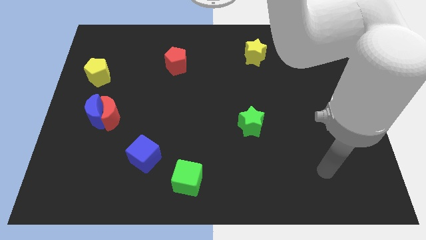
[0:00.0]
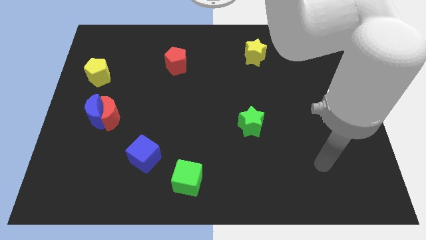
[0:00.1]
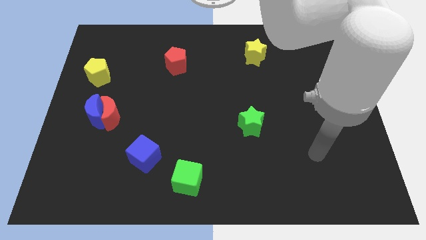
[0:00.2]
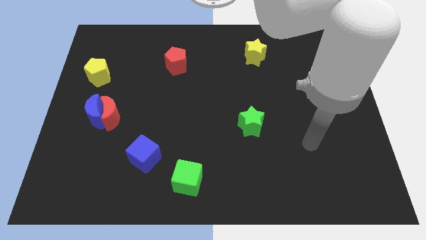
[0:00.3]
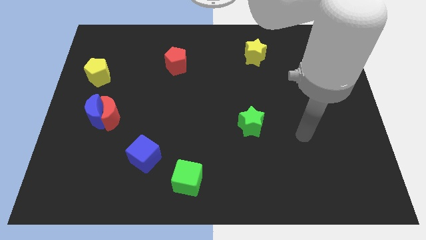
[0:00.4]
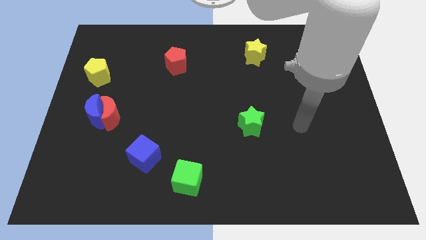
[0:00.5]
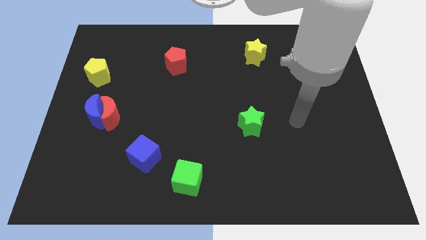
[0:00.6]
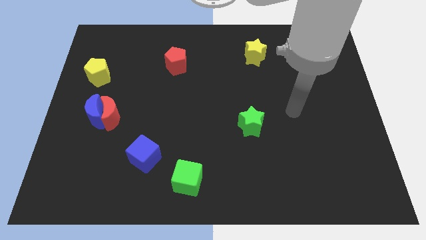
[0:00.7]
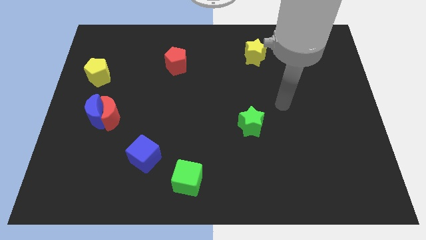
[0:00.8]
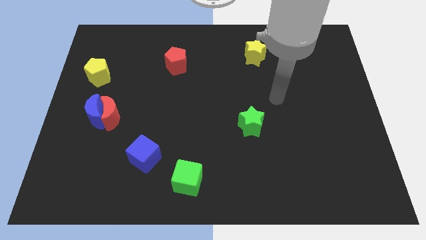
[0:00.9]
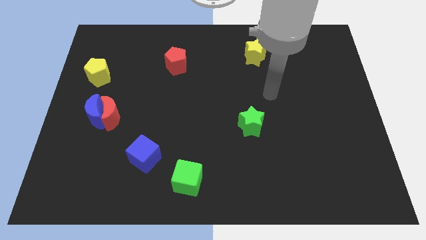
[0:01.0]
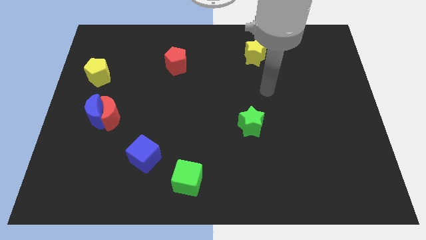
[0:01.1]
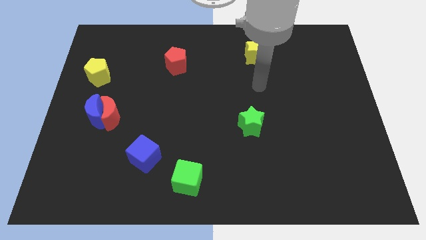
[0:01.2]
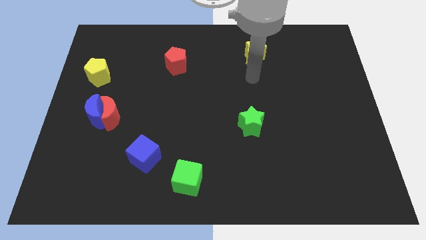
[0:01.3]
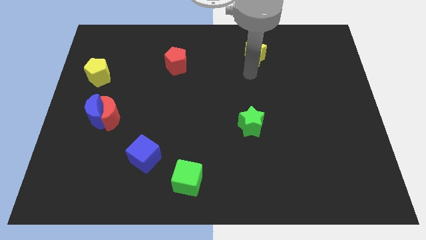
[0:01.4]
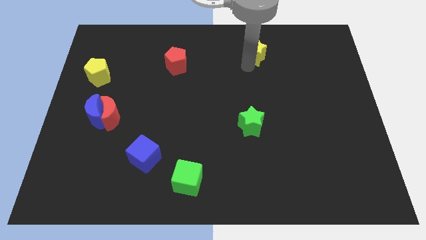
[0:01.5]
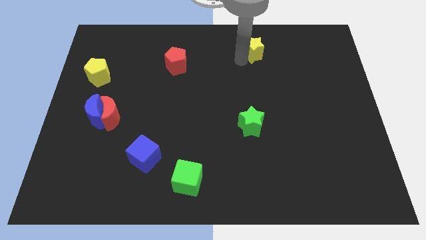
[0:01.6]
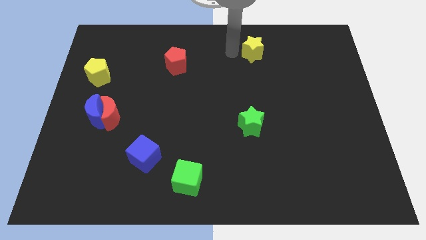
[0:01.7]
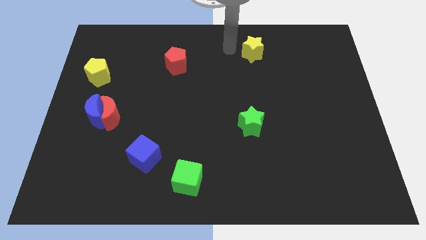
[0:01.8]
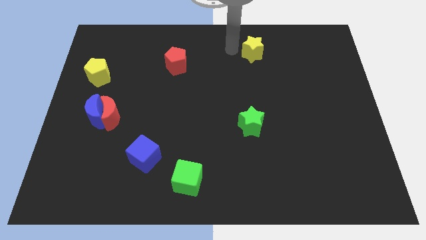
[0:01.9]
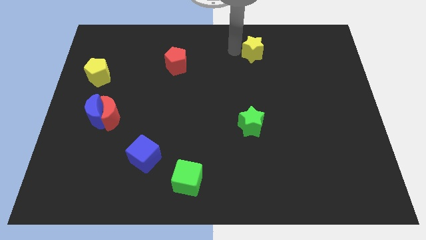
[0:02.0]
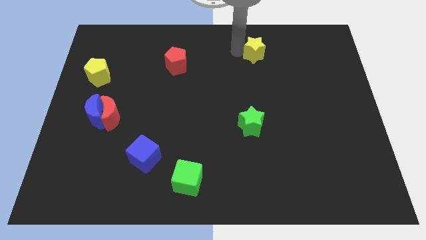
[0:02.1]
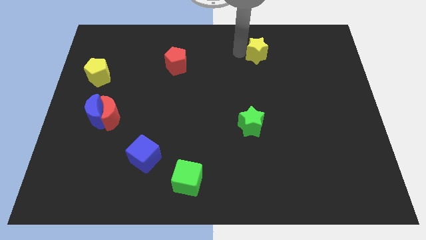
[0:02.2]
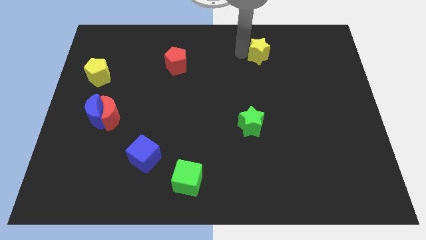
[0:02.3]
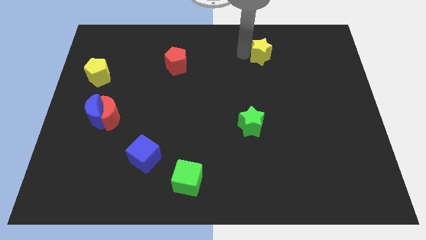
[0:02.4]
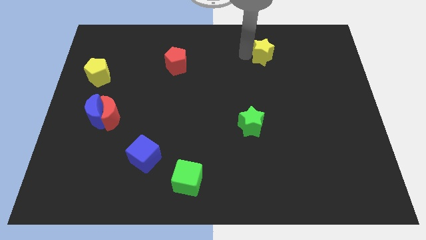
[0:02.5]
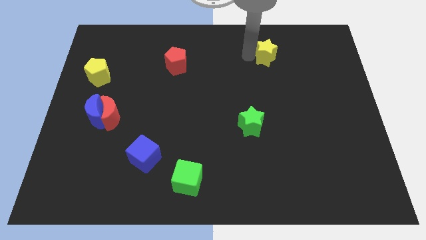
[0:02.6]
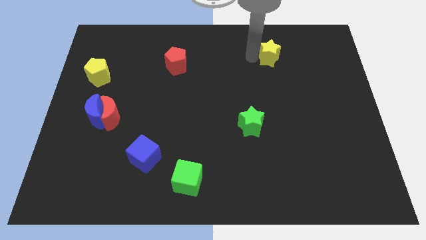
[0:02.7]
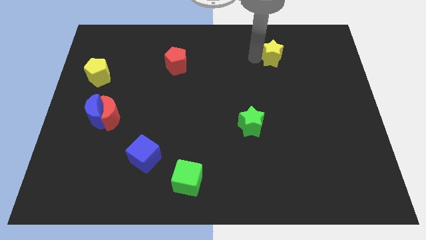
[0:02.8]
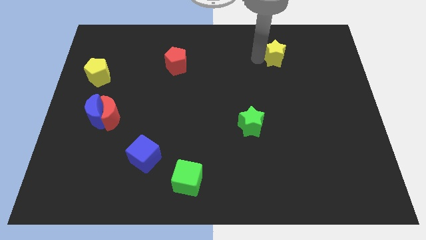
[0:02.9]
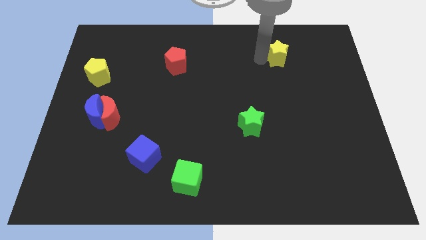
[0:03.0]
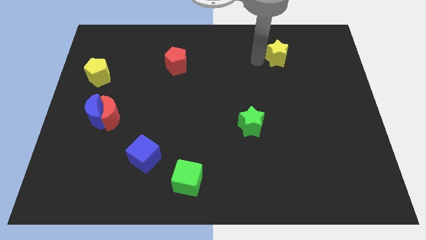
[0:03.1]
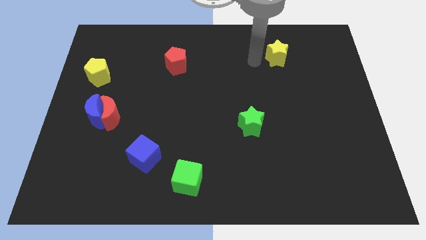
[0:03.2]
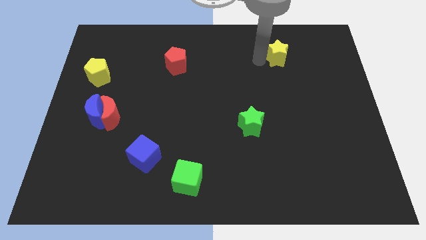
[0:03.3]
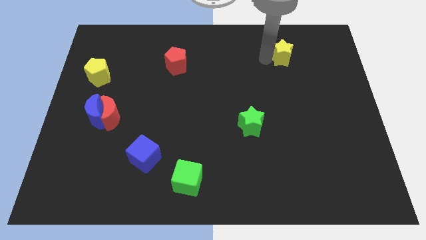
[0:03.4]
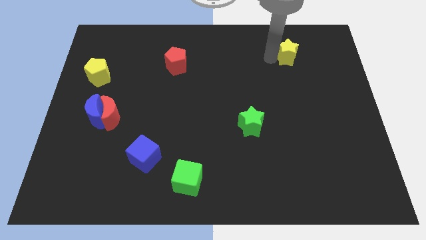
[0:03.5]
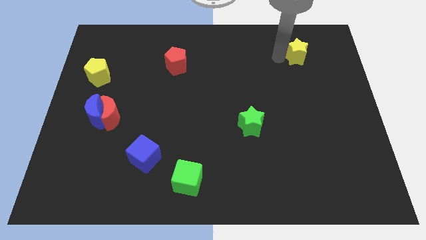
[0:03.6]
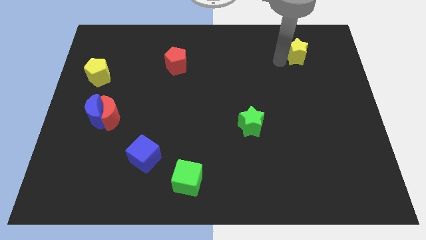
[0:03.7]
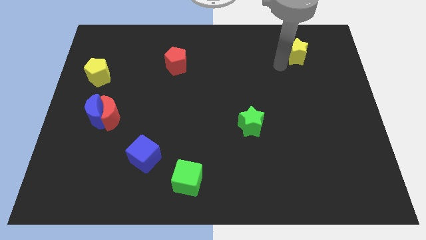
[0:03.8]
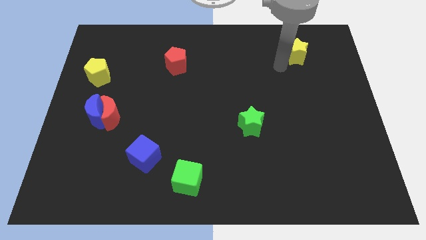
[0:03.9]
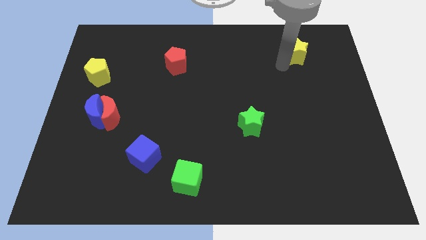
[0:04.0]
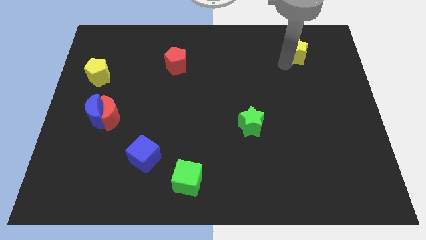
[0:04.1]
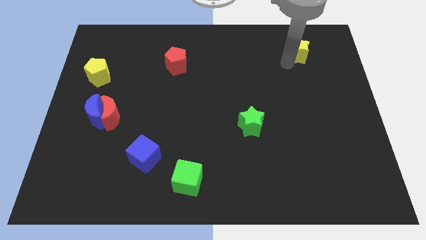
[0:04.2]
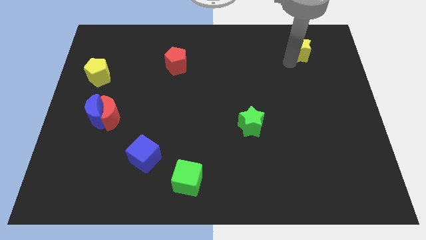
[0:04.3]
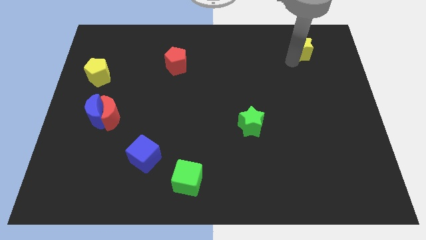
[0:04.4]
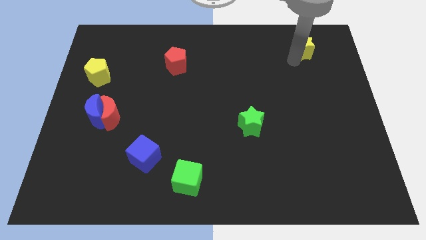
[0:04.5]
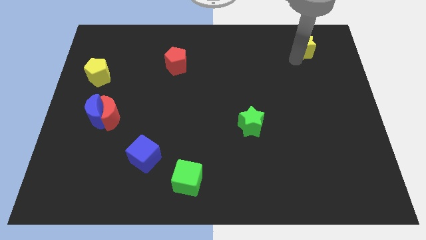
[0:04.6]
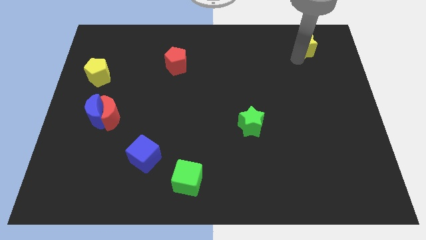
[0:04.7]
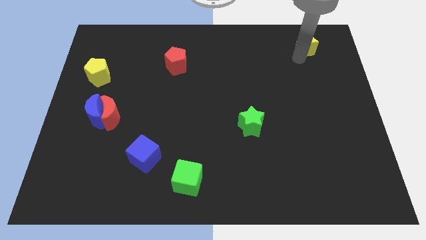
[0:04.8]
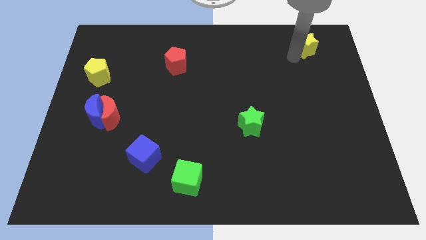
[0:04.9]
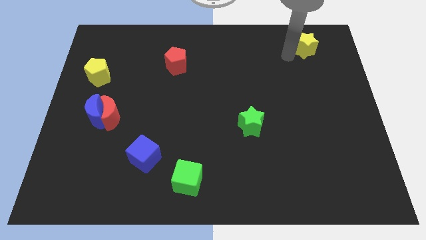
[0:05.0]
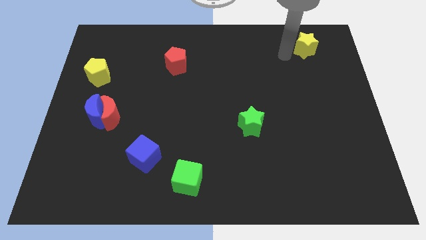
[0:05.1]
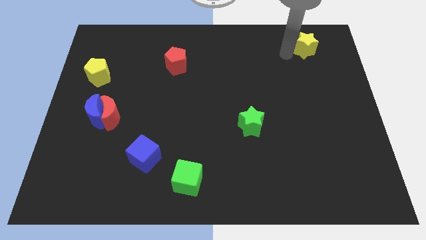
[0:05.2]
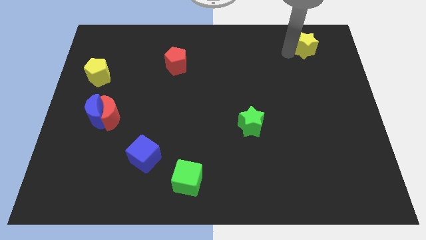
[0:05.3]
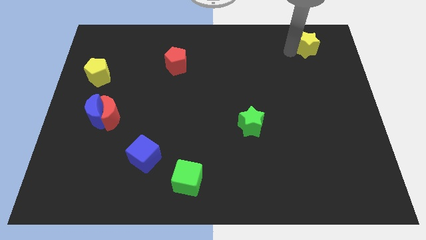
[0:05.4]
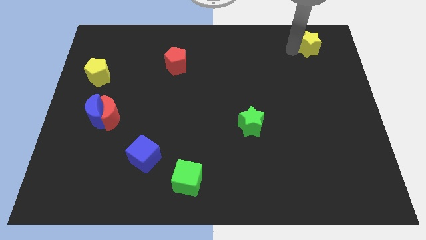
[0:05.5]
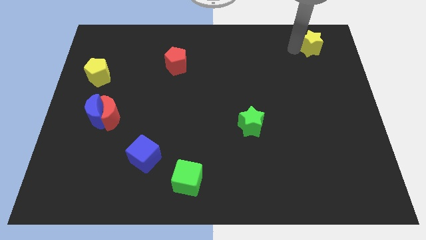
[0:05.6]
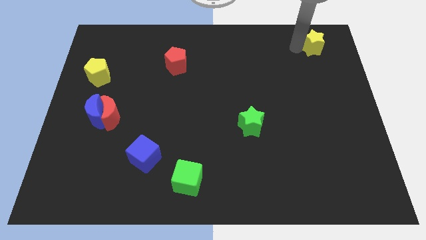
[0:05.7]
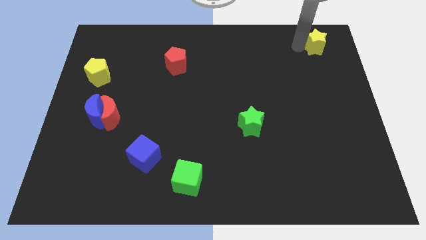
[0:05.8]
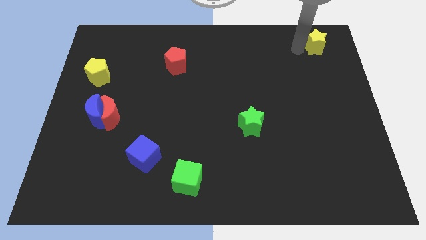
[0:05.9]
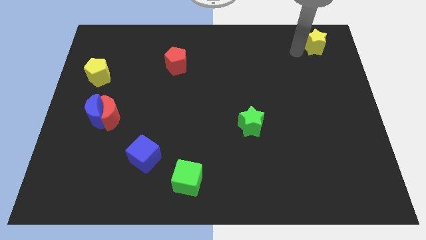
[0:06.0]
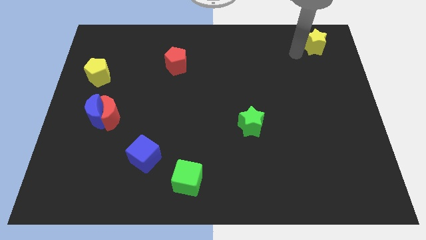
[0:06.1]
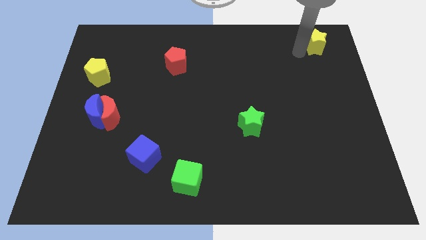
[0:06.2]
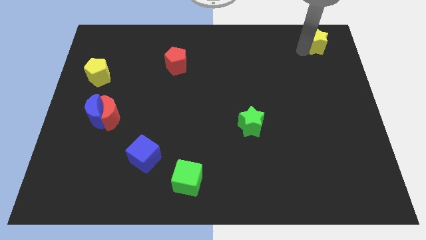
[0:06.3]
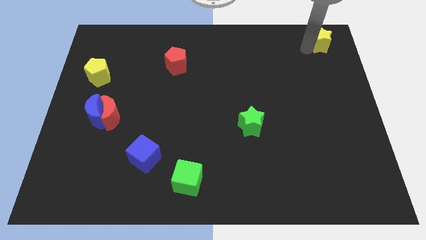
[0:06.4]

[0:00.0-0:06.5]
put the yellow star to the top right corner
